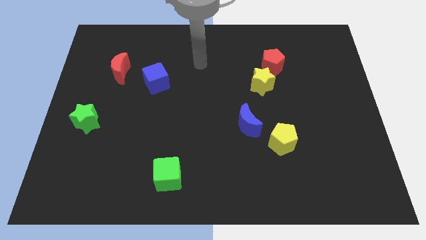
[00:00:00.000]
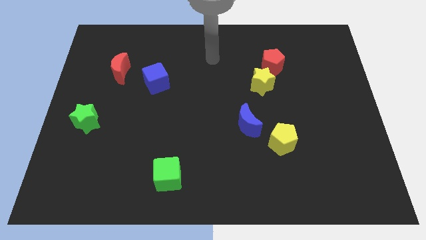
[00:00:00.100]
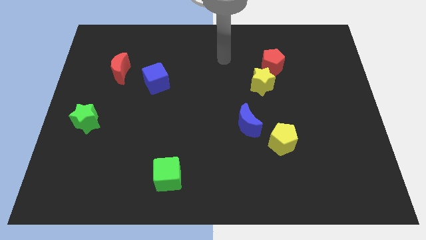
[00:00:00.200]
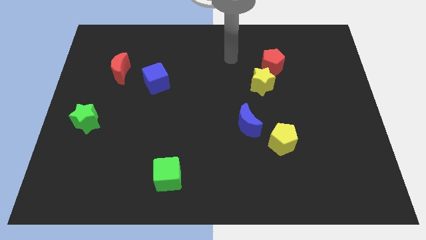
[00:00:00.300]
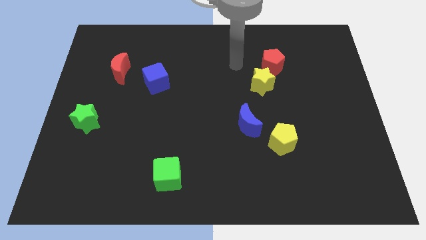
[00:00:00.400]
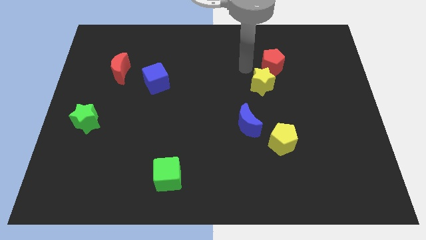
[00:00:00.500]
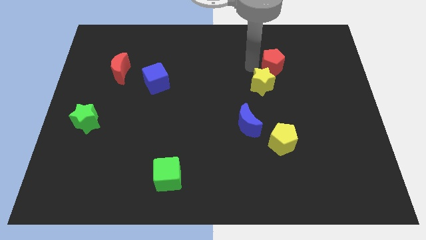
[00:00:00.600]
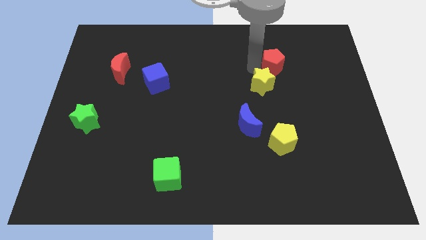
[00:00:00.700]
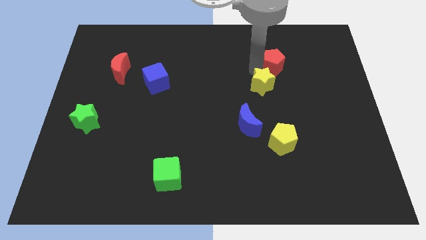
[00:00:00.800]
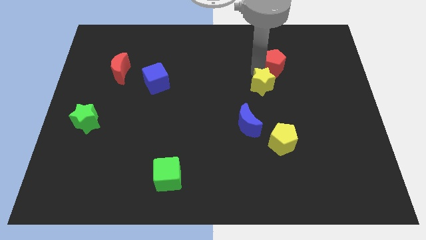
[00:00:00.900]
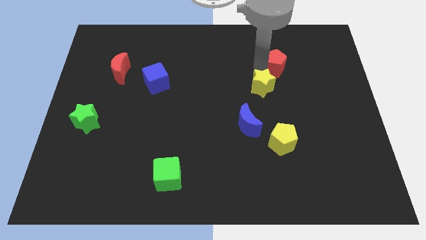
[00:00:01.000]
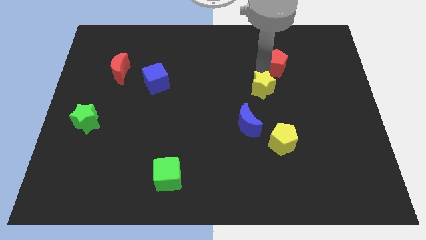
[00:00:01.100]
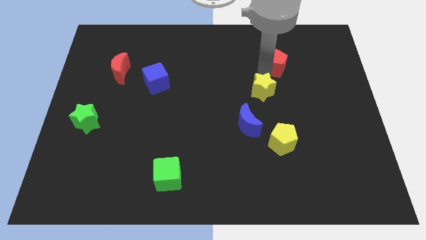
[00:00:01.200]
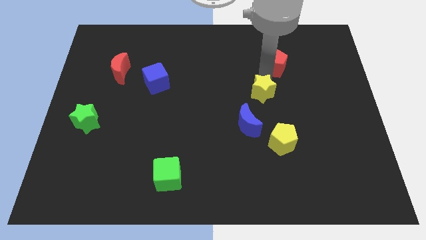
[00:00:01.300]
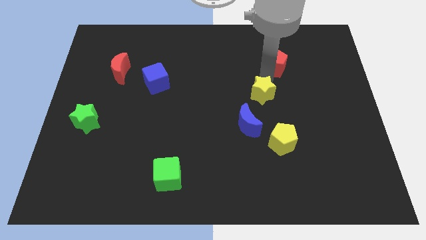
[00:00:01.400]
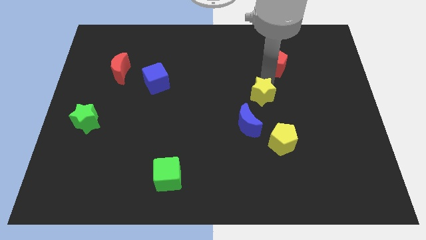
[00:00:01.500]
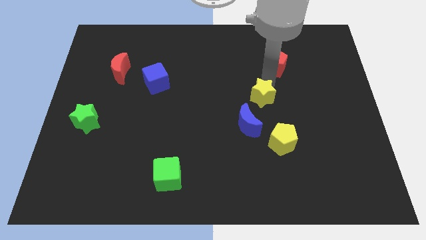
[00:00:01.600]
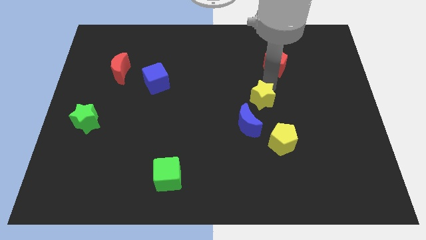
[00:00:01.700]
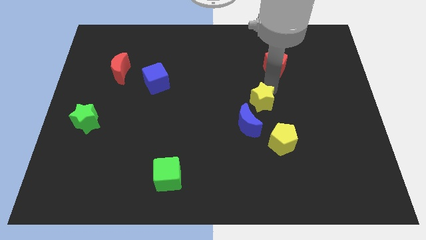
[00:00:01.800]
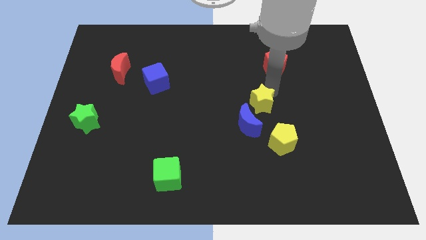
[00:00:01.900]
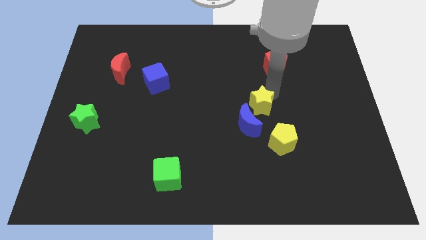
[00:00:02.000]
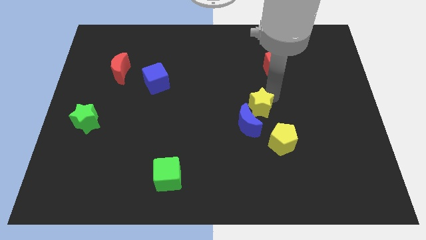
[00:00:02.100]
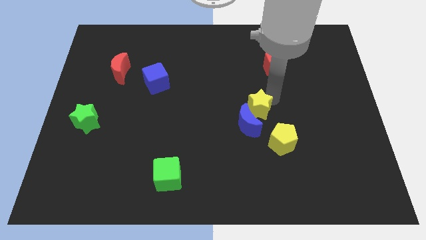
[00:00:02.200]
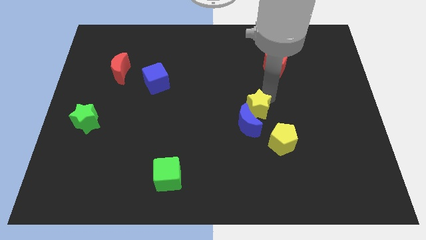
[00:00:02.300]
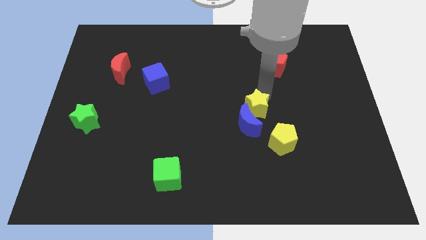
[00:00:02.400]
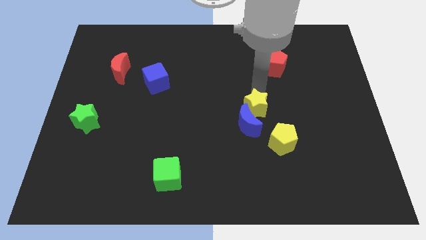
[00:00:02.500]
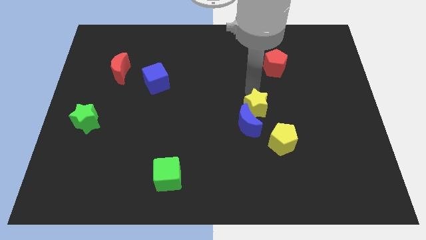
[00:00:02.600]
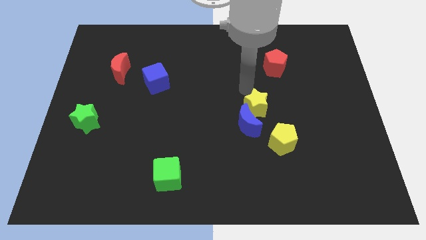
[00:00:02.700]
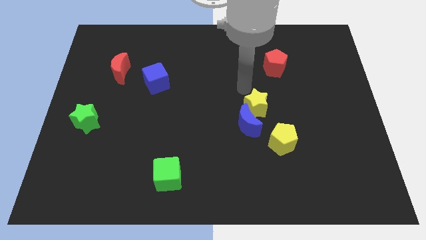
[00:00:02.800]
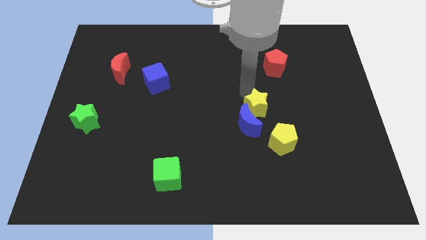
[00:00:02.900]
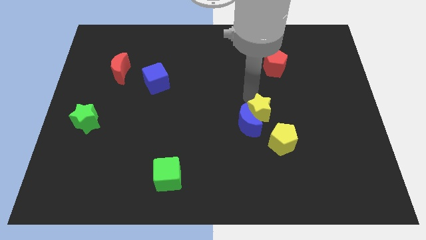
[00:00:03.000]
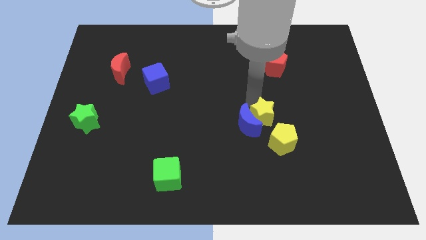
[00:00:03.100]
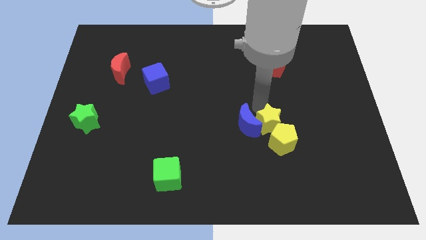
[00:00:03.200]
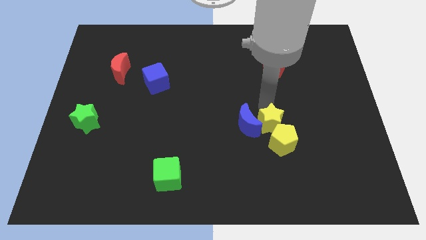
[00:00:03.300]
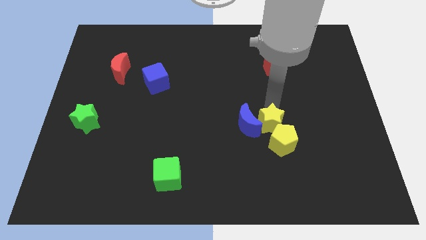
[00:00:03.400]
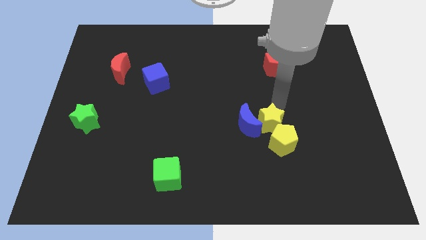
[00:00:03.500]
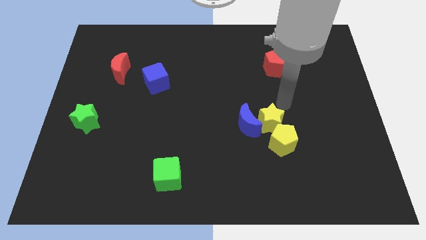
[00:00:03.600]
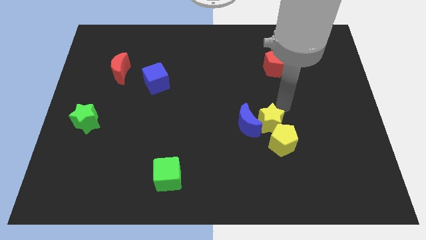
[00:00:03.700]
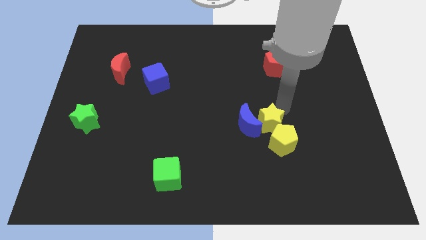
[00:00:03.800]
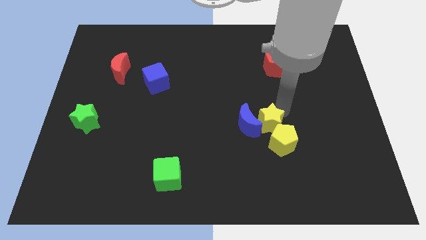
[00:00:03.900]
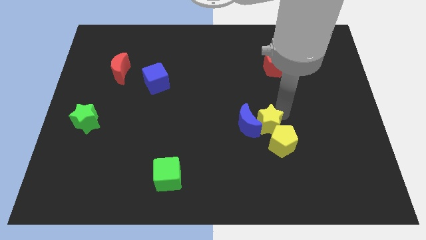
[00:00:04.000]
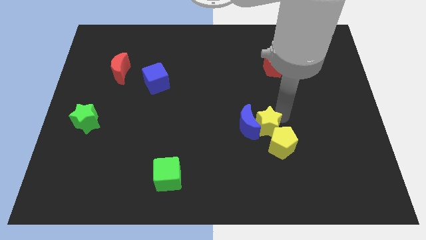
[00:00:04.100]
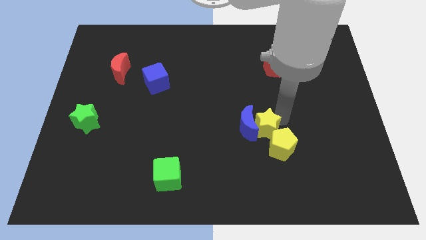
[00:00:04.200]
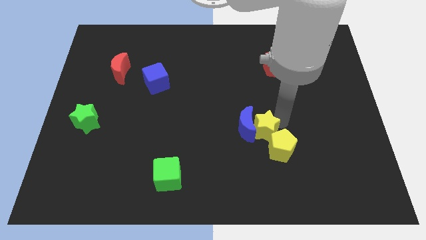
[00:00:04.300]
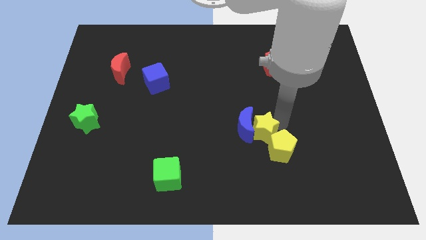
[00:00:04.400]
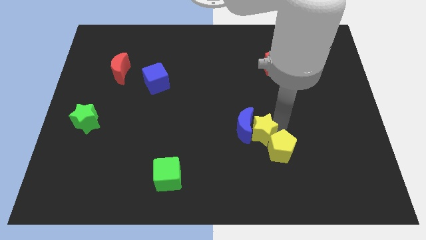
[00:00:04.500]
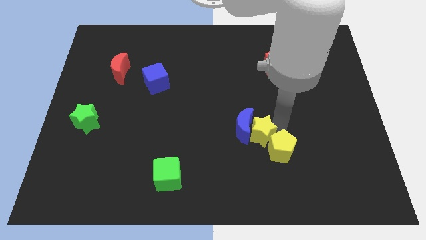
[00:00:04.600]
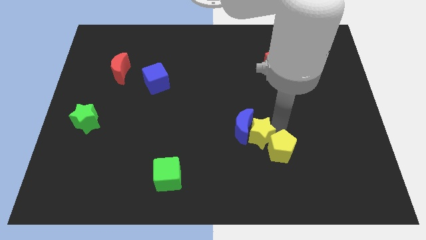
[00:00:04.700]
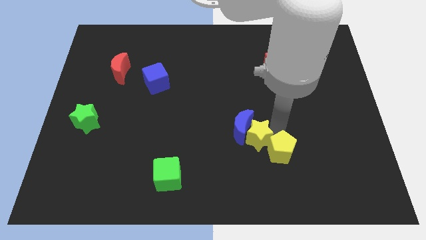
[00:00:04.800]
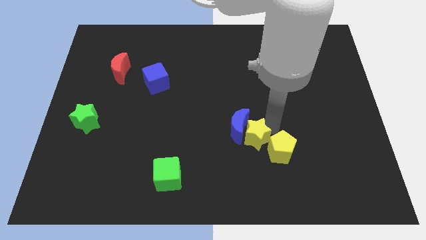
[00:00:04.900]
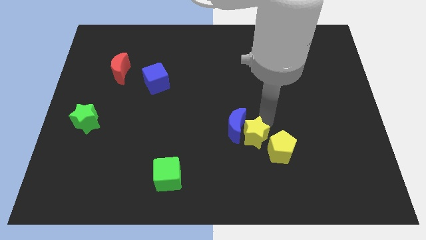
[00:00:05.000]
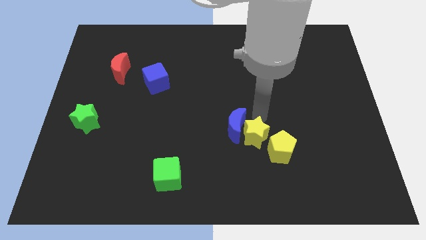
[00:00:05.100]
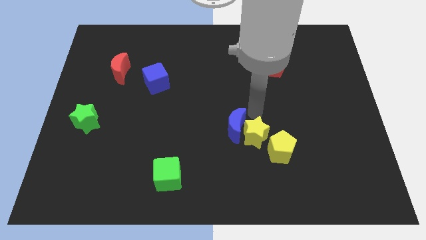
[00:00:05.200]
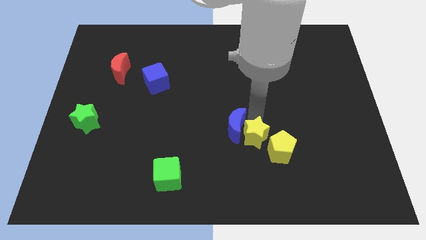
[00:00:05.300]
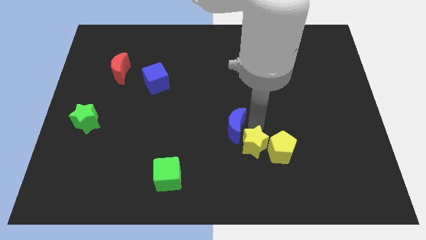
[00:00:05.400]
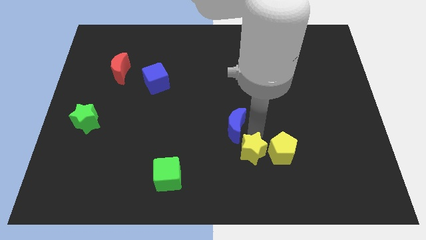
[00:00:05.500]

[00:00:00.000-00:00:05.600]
push the yellow star to the bottom left side of the yellow pentagon

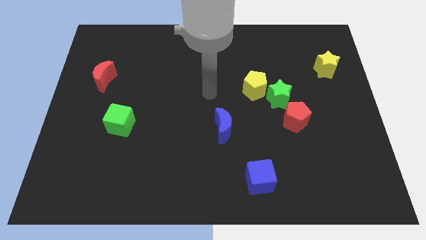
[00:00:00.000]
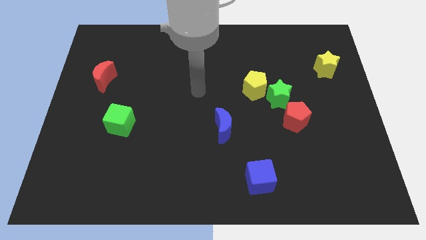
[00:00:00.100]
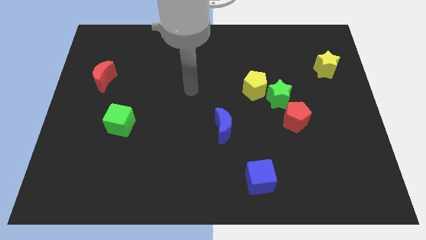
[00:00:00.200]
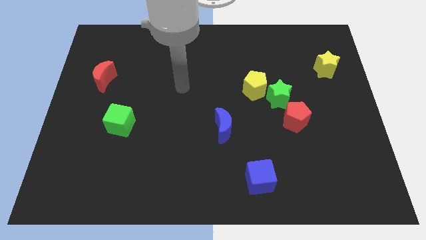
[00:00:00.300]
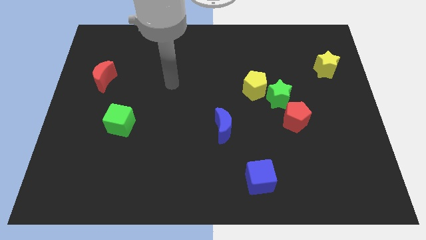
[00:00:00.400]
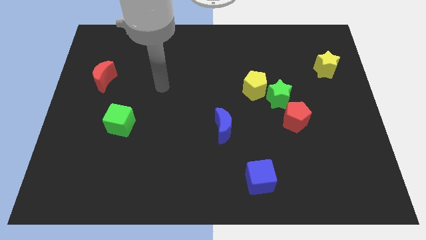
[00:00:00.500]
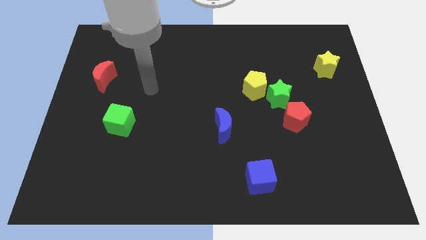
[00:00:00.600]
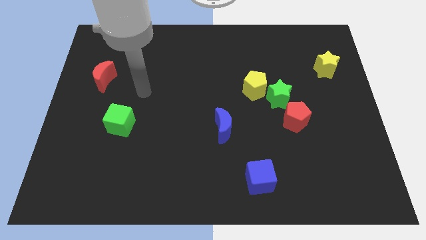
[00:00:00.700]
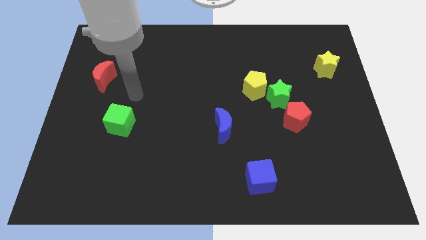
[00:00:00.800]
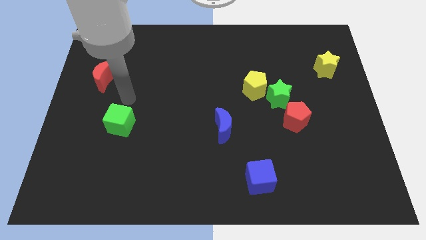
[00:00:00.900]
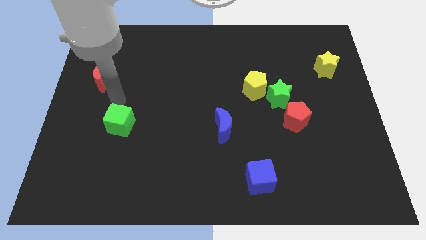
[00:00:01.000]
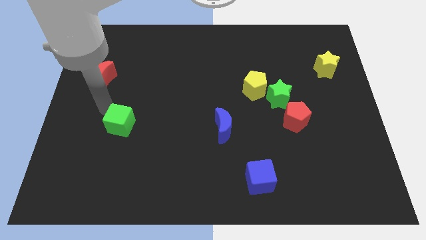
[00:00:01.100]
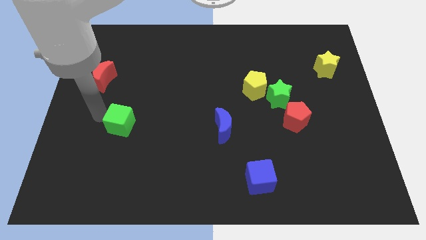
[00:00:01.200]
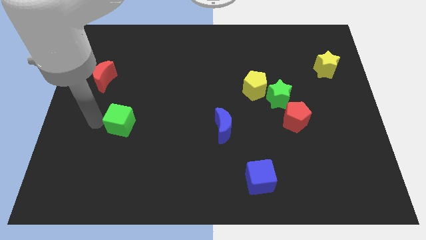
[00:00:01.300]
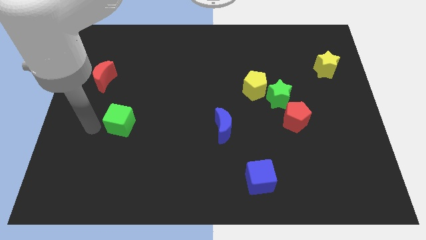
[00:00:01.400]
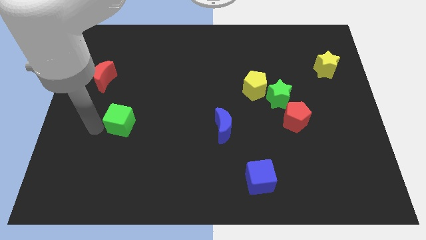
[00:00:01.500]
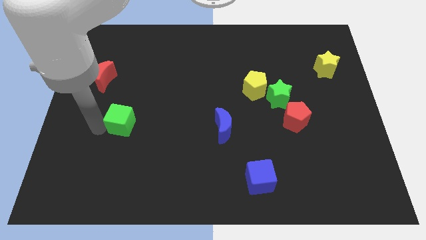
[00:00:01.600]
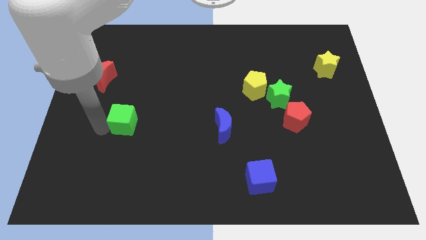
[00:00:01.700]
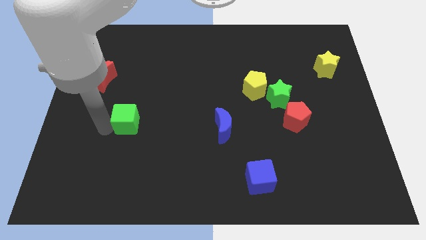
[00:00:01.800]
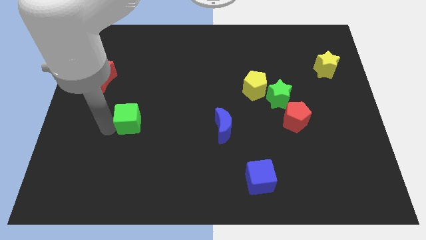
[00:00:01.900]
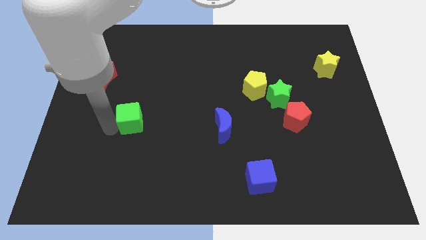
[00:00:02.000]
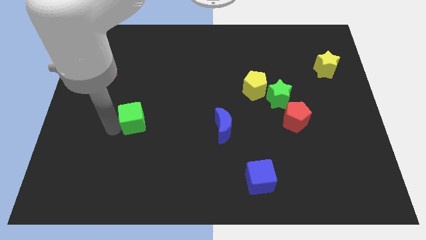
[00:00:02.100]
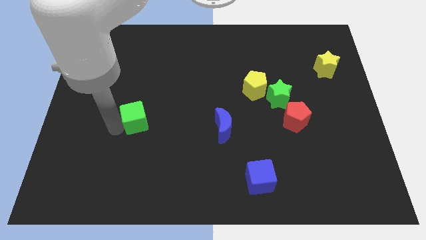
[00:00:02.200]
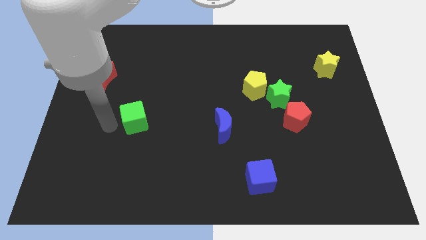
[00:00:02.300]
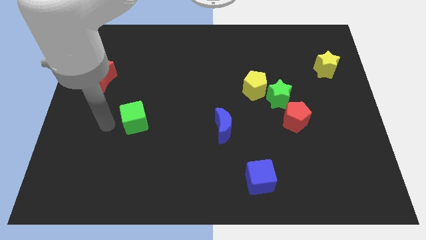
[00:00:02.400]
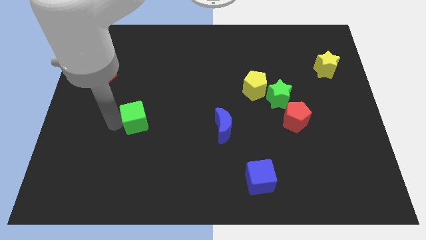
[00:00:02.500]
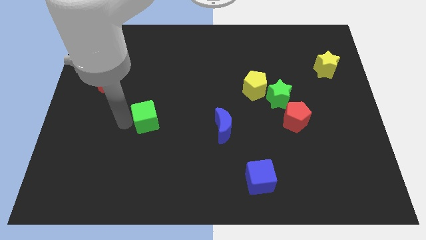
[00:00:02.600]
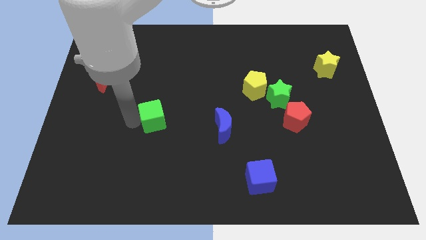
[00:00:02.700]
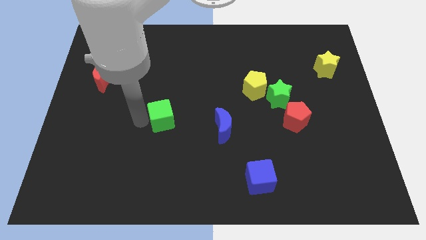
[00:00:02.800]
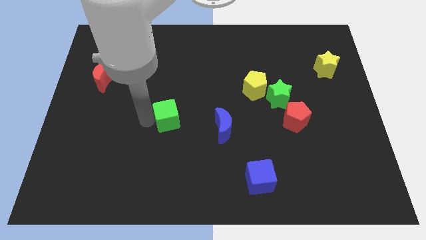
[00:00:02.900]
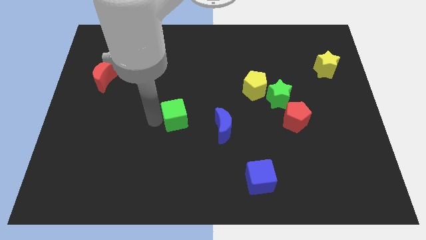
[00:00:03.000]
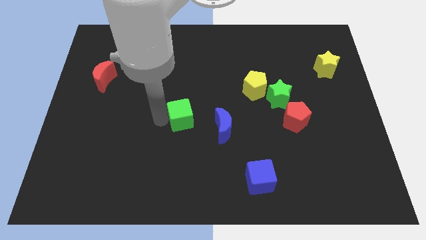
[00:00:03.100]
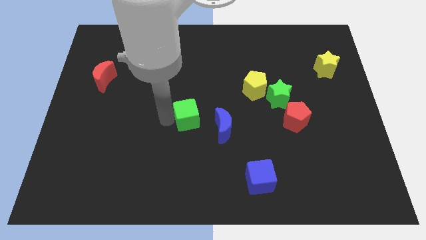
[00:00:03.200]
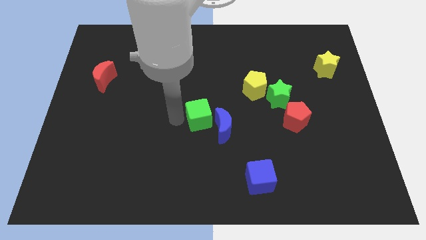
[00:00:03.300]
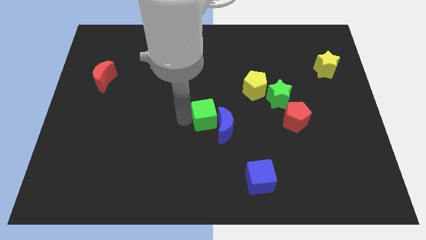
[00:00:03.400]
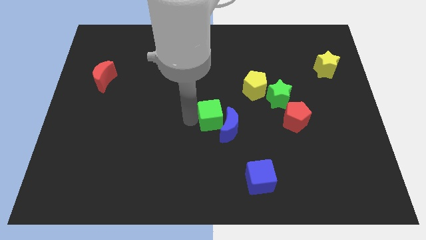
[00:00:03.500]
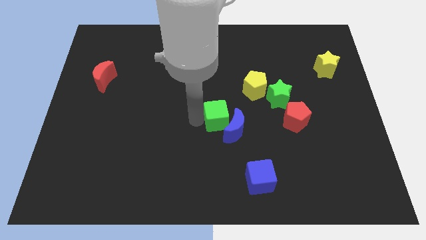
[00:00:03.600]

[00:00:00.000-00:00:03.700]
slide the green cube to the bottom left side of the yellow pentagon
